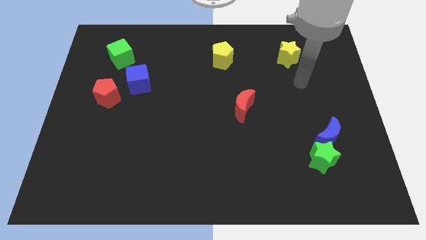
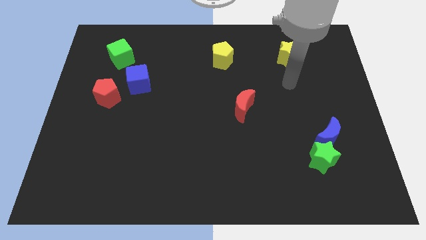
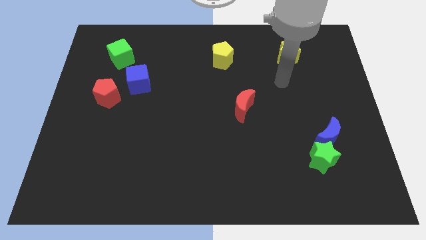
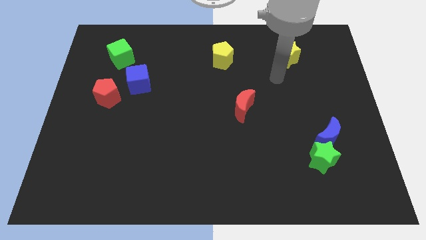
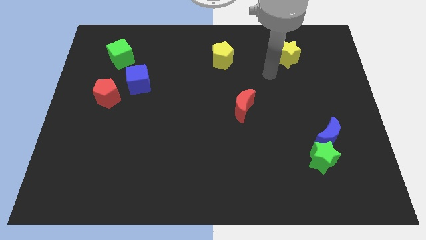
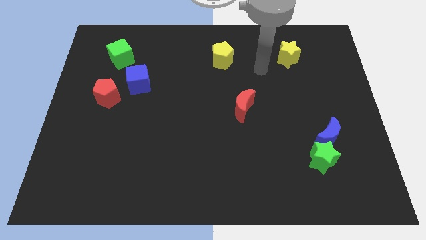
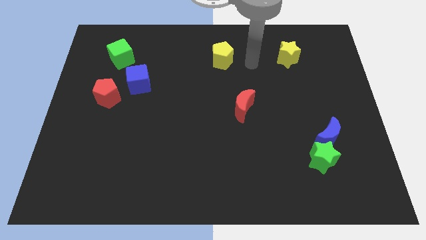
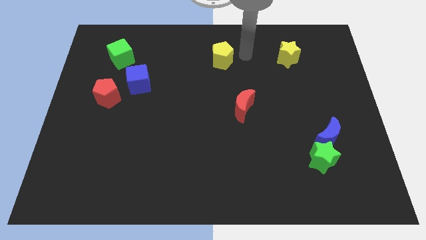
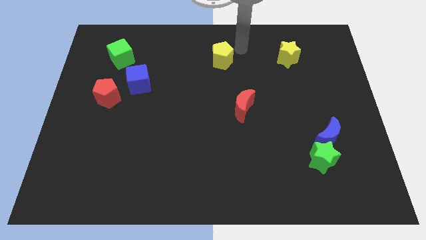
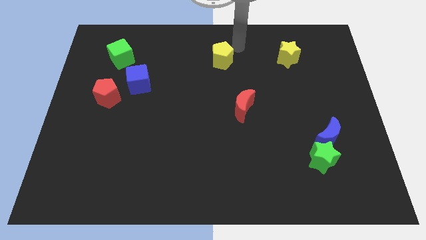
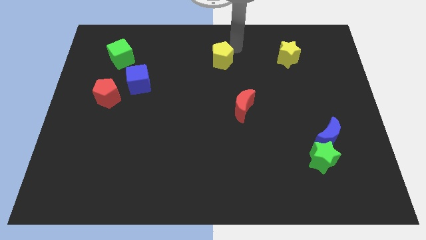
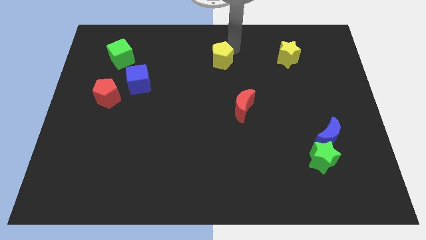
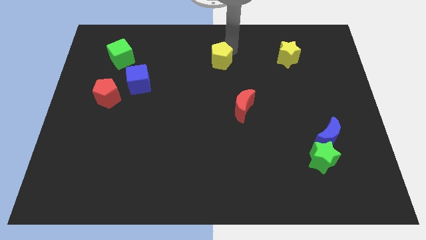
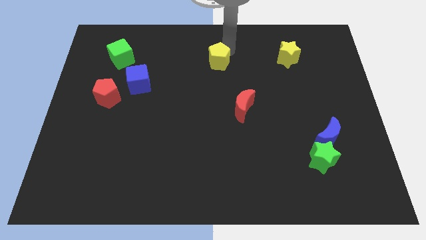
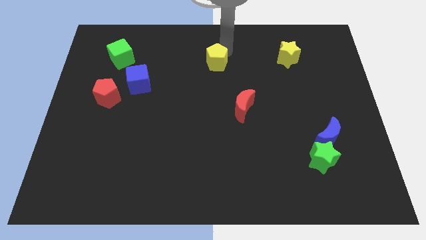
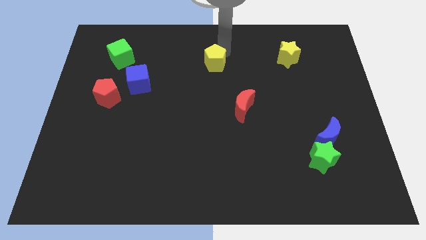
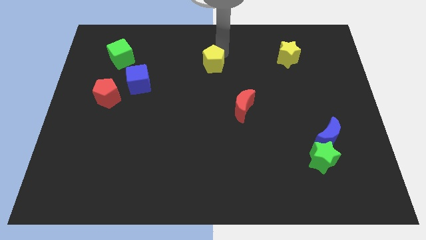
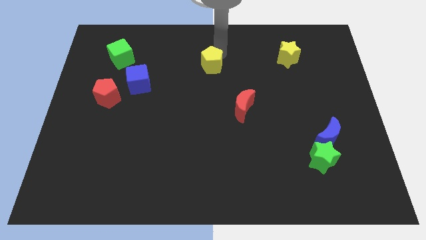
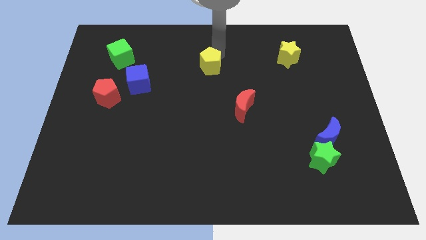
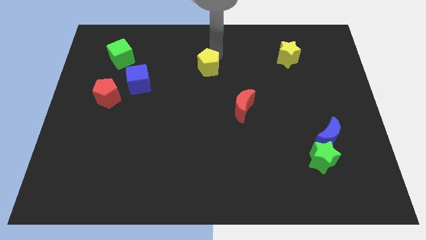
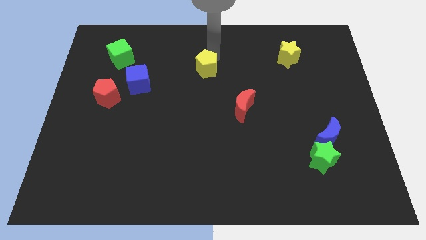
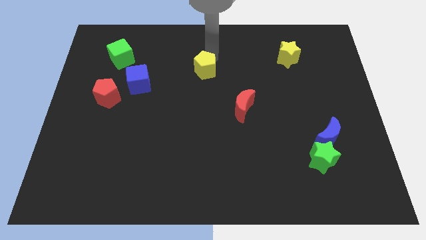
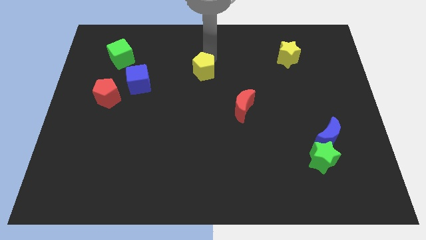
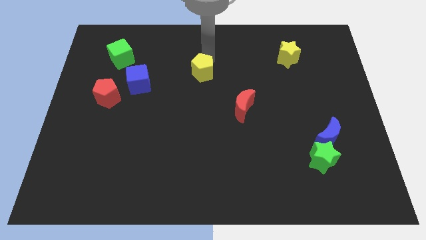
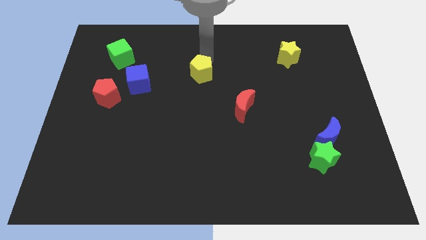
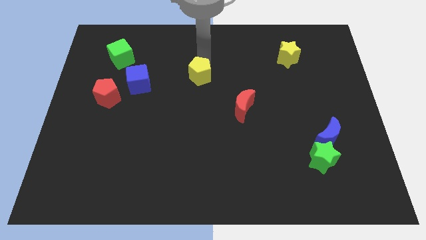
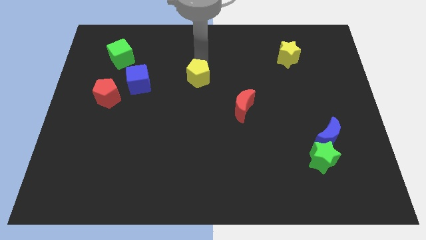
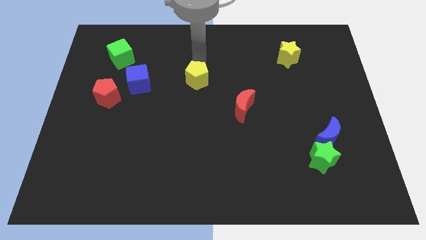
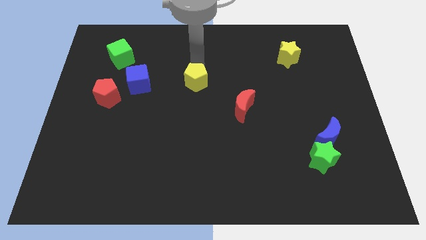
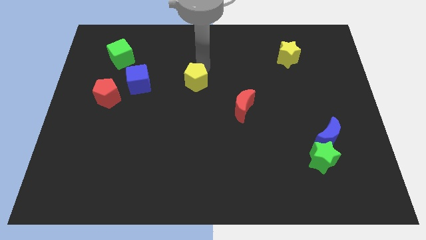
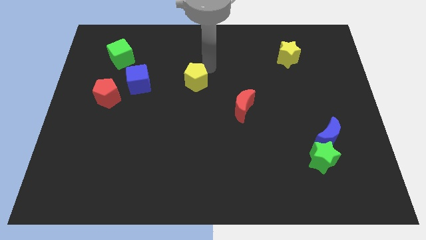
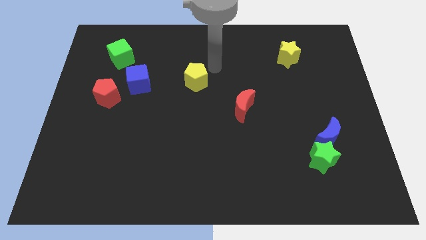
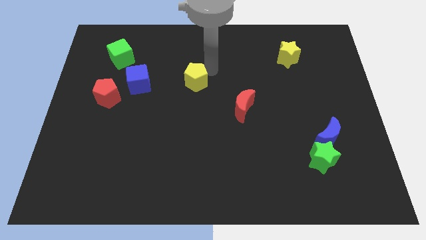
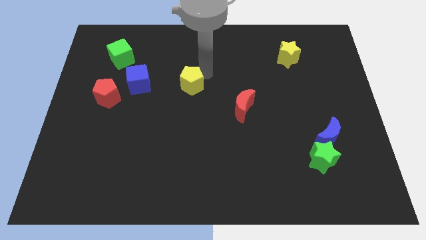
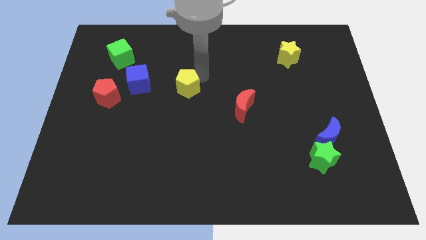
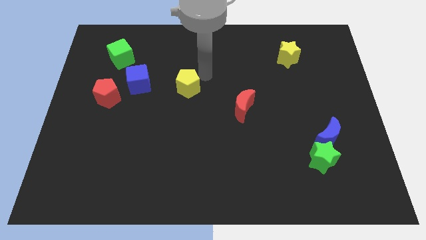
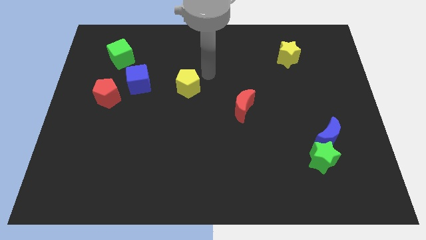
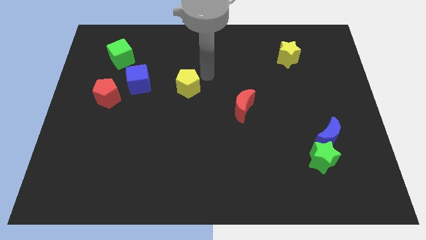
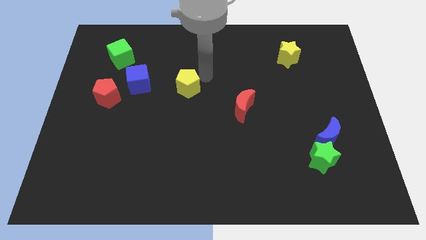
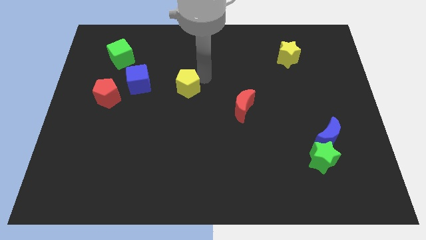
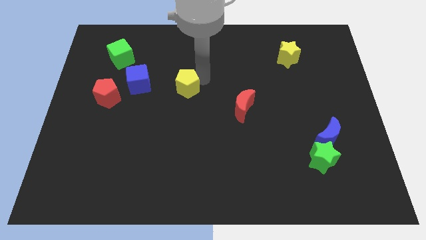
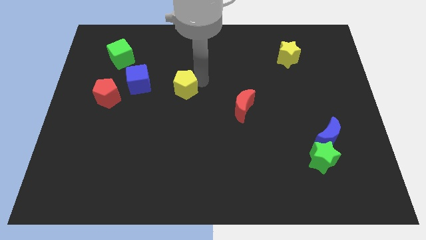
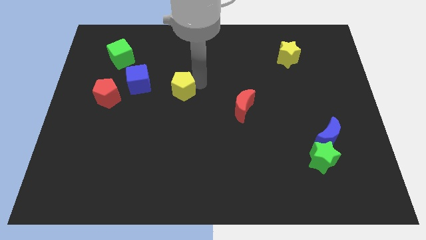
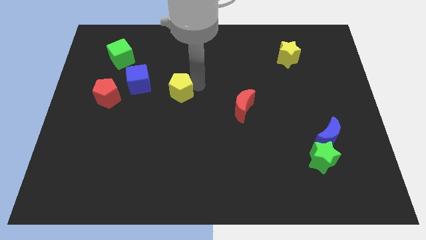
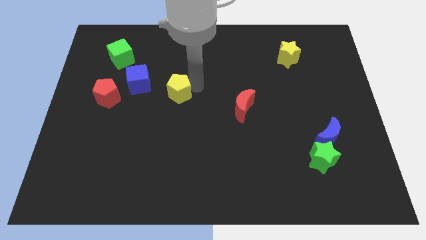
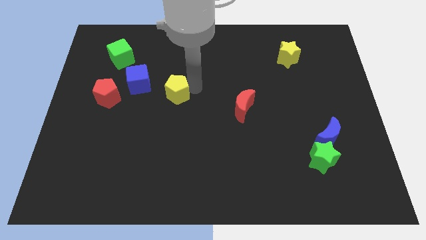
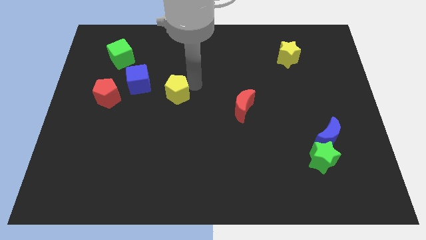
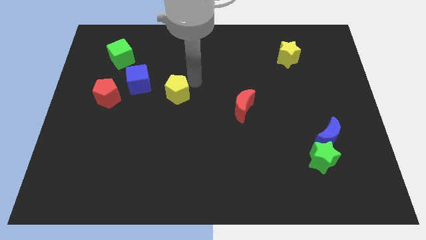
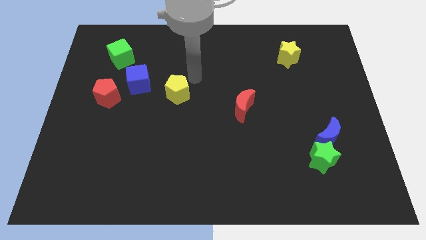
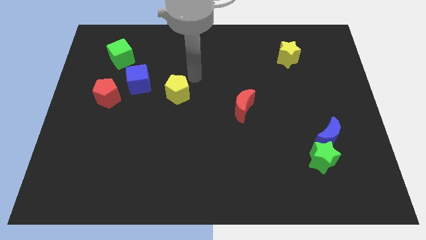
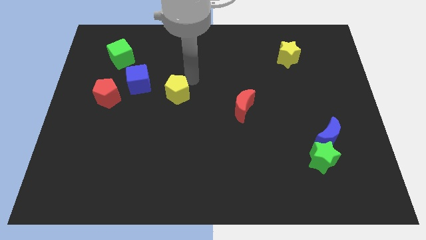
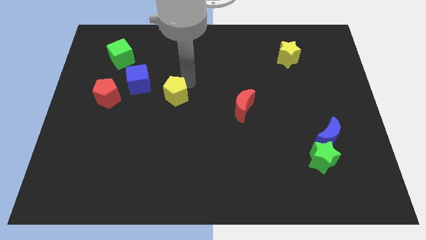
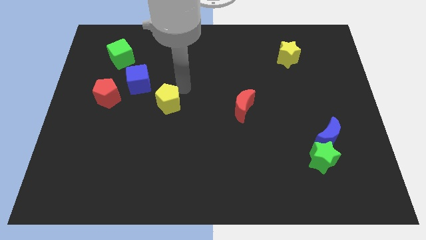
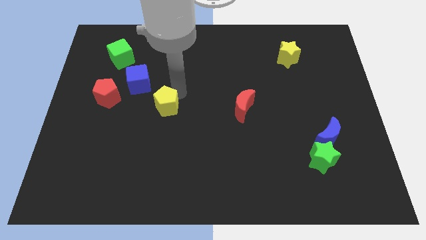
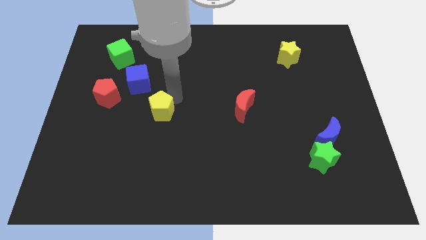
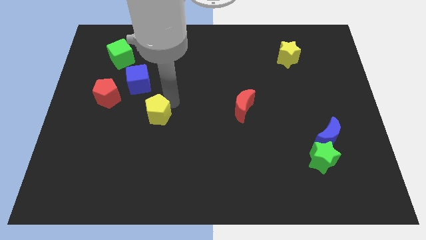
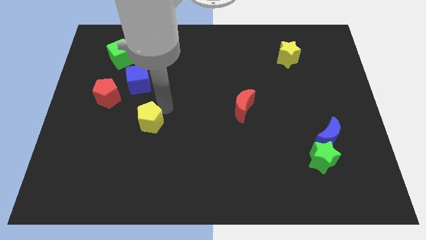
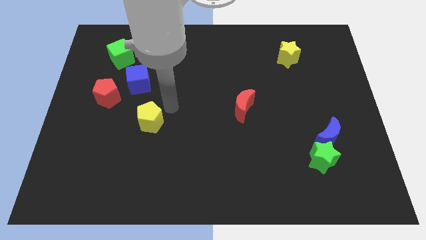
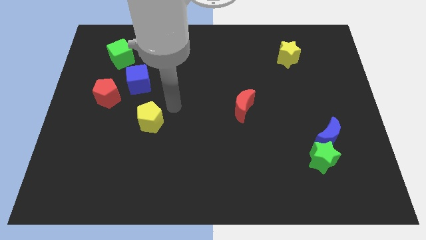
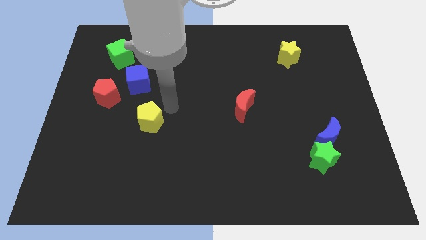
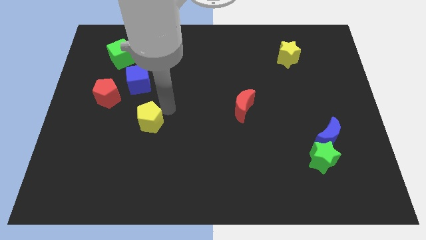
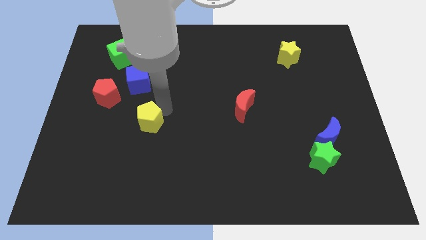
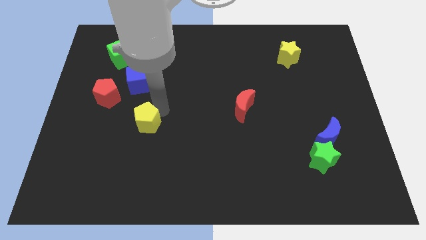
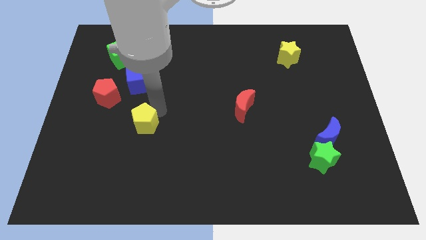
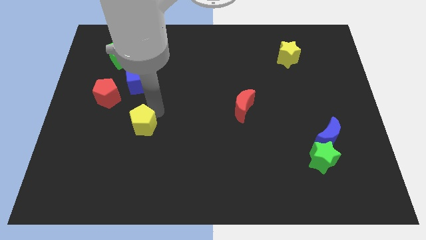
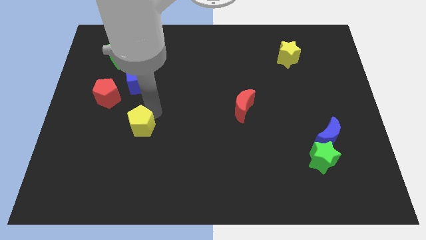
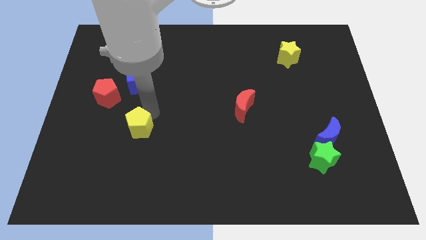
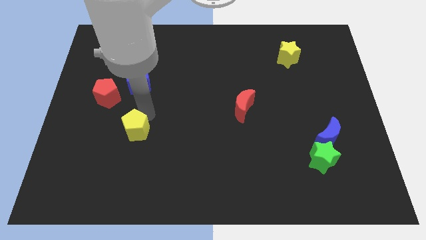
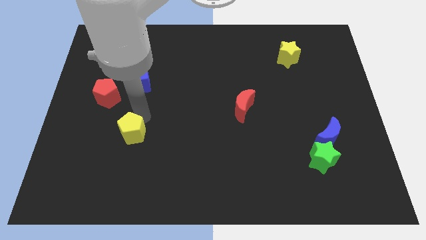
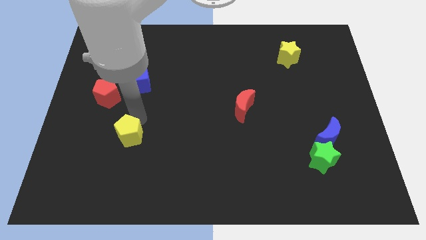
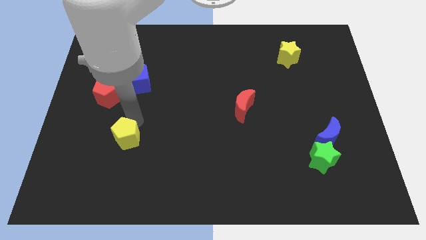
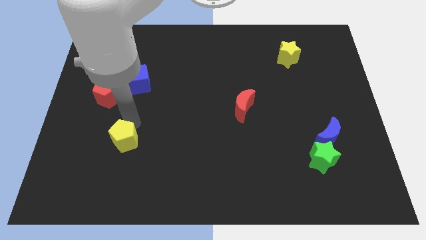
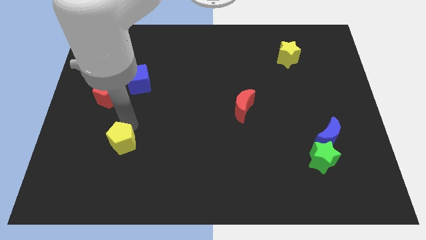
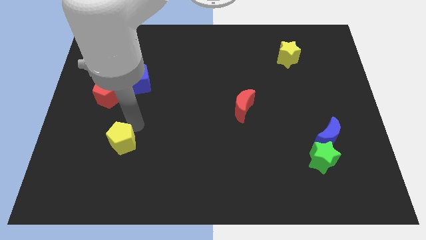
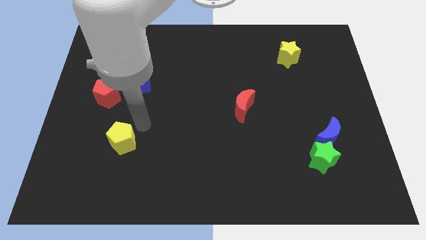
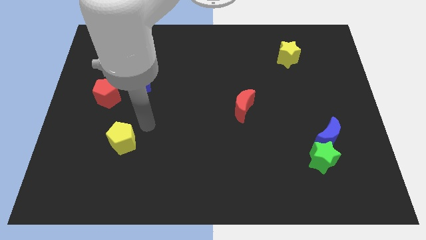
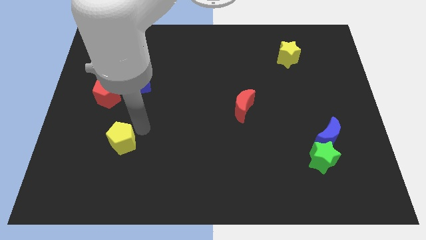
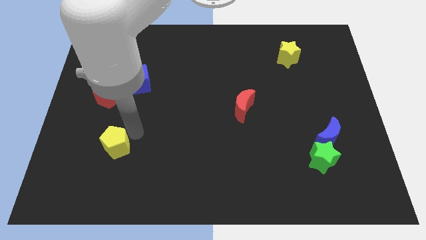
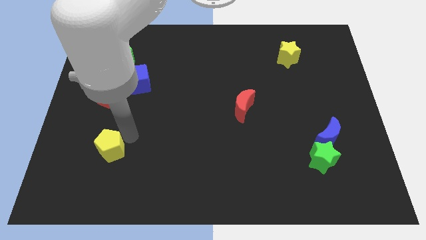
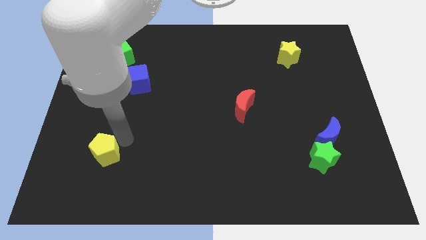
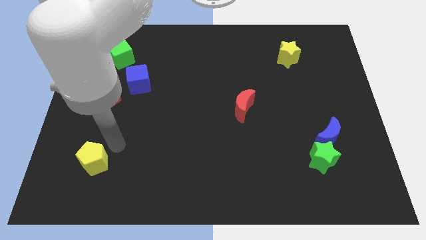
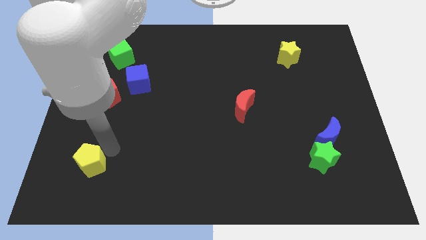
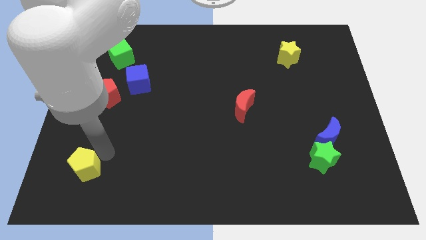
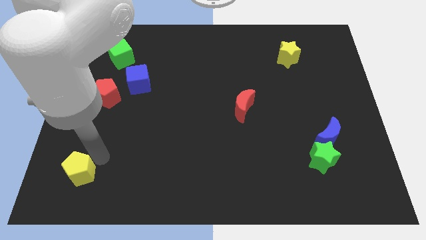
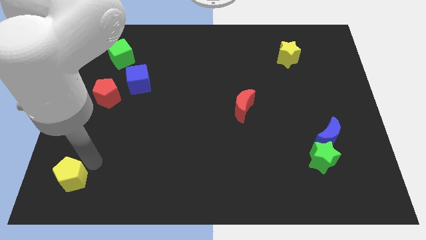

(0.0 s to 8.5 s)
move the yellow pentagon to the bottom left
